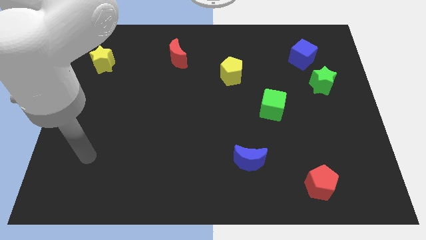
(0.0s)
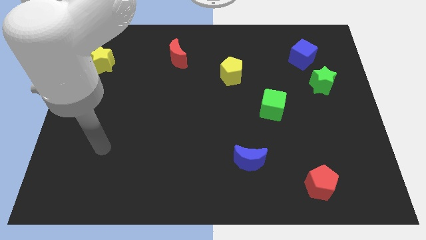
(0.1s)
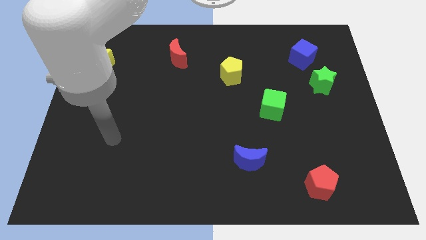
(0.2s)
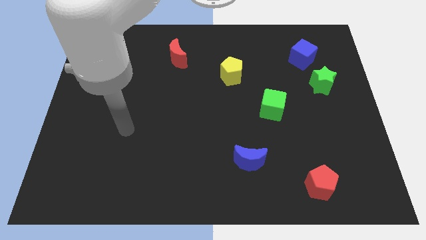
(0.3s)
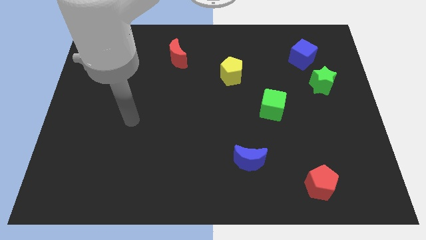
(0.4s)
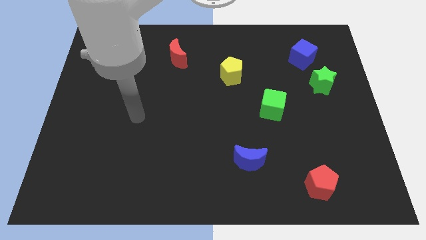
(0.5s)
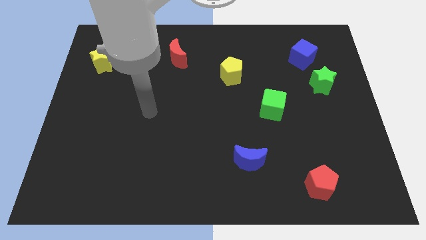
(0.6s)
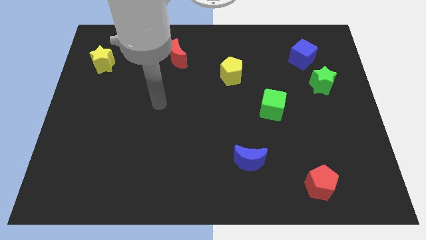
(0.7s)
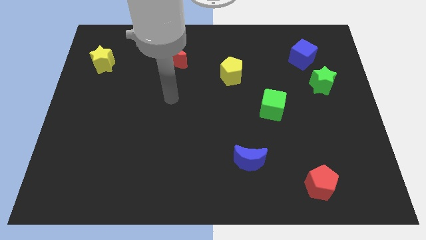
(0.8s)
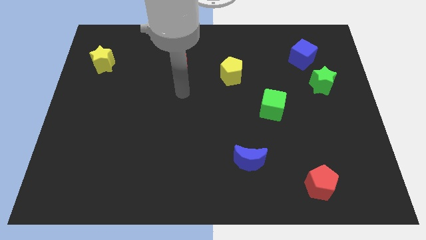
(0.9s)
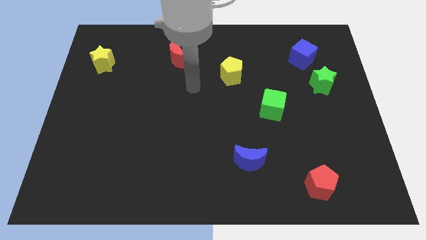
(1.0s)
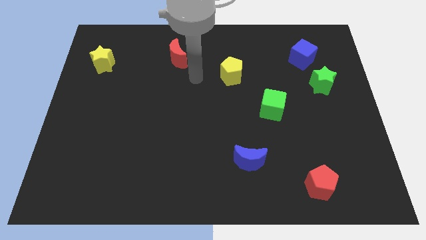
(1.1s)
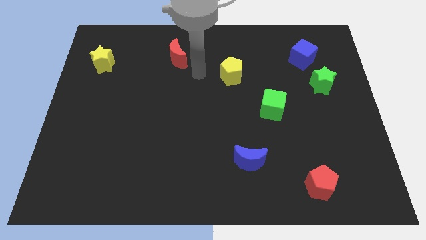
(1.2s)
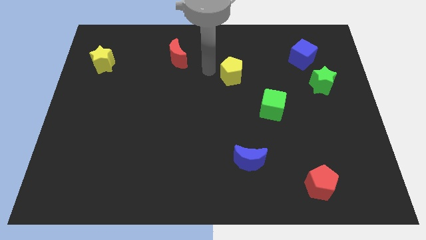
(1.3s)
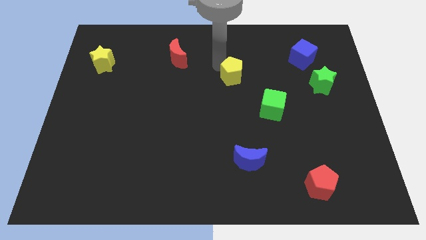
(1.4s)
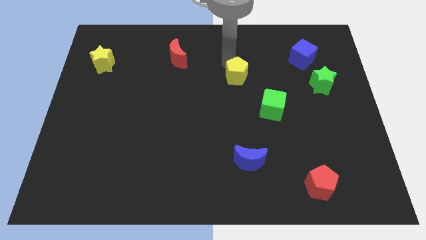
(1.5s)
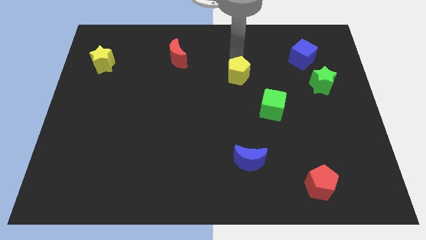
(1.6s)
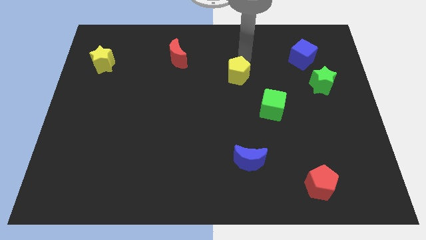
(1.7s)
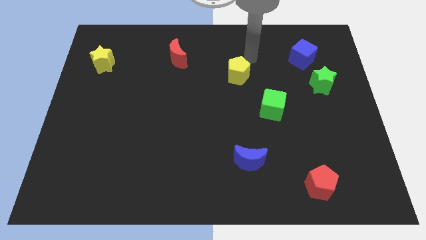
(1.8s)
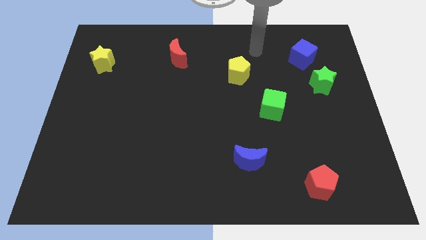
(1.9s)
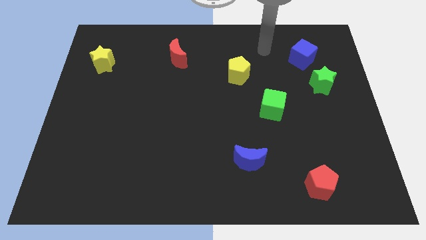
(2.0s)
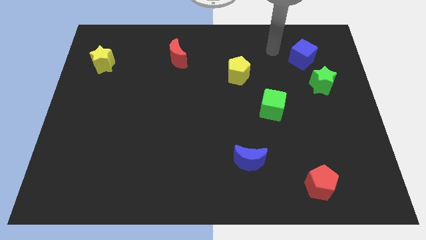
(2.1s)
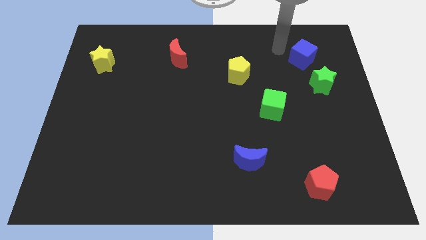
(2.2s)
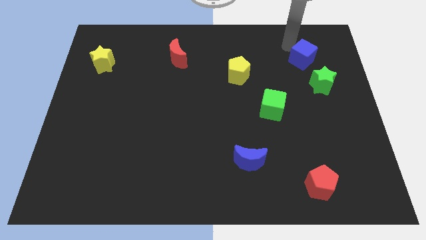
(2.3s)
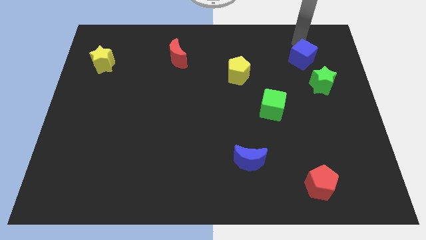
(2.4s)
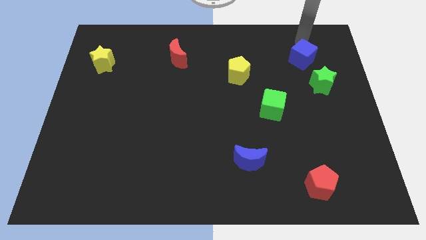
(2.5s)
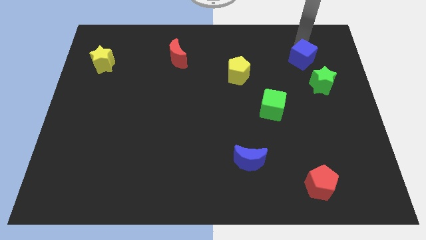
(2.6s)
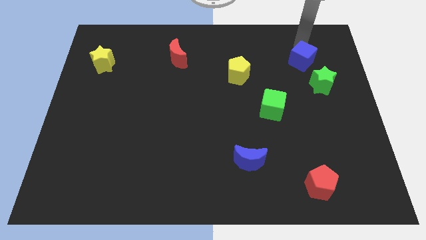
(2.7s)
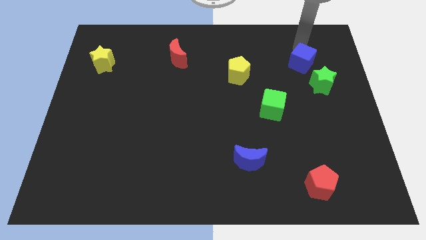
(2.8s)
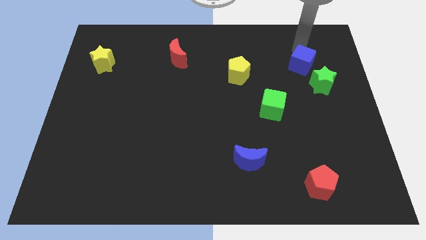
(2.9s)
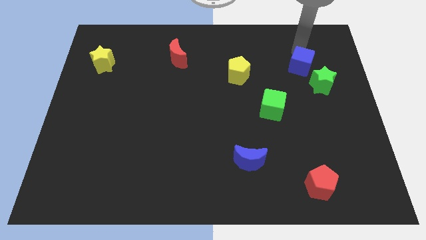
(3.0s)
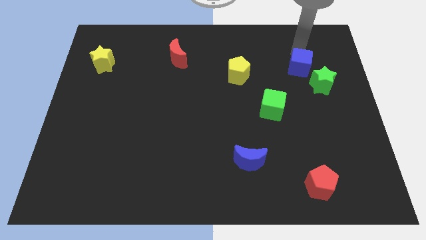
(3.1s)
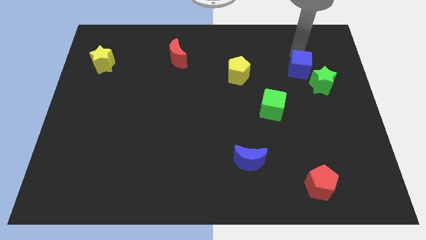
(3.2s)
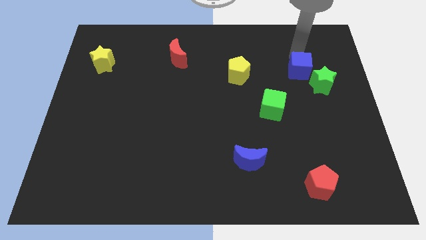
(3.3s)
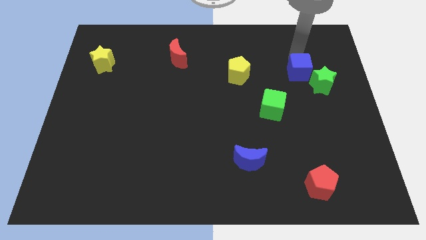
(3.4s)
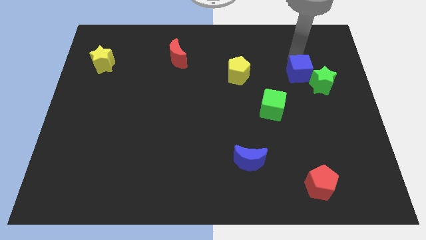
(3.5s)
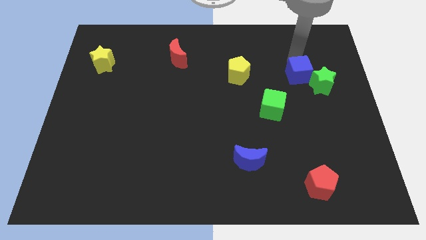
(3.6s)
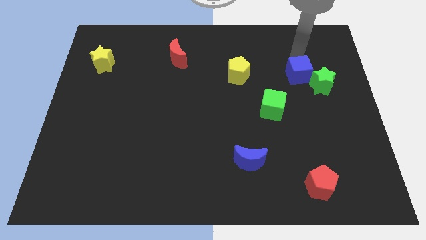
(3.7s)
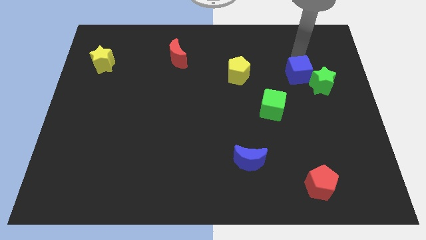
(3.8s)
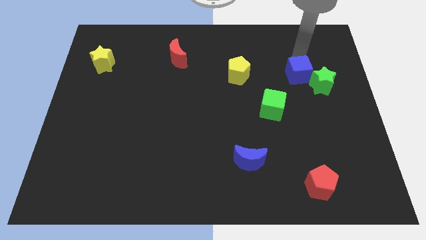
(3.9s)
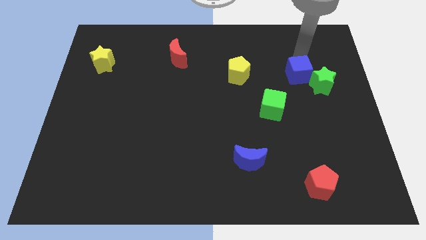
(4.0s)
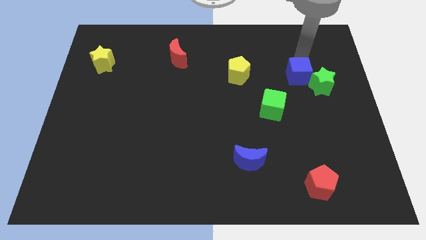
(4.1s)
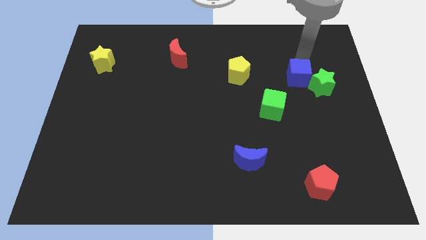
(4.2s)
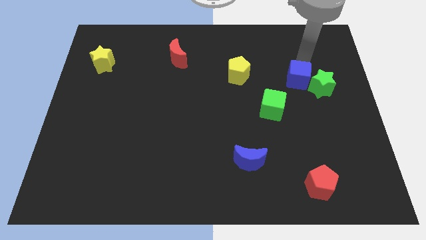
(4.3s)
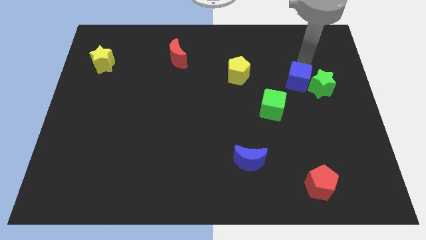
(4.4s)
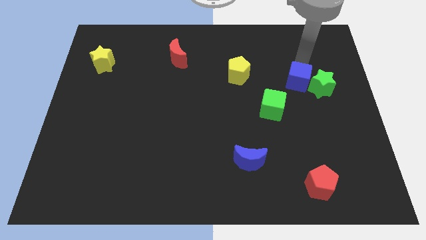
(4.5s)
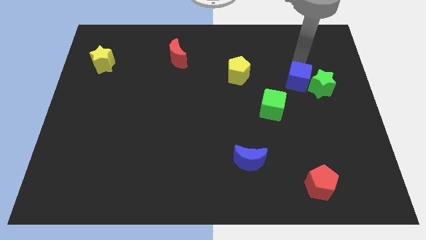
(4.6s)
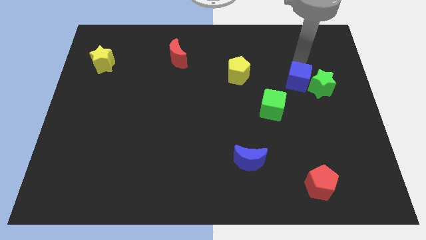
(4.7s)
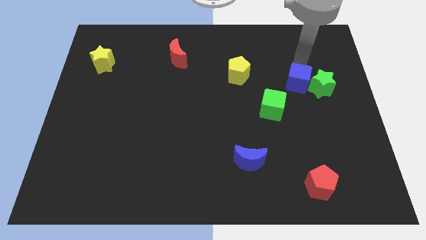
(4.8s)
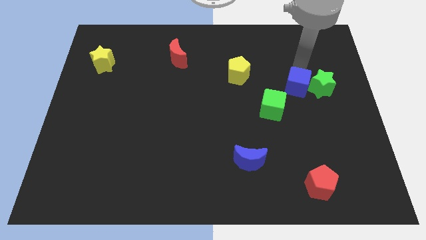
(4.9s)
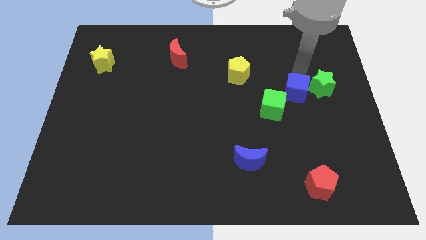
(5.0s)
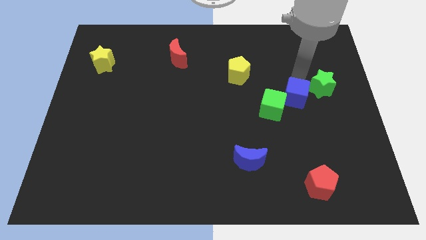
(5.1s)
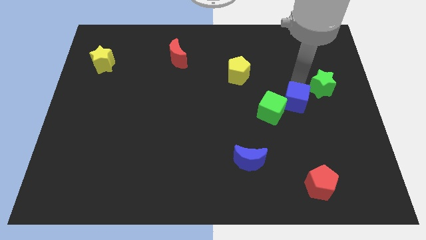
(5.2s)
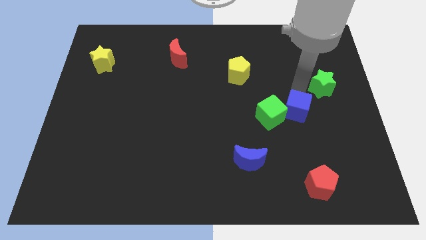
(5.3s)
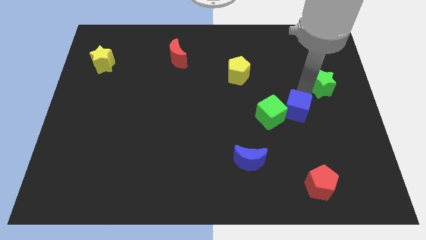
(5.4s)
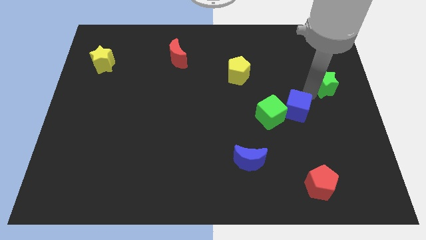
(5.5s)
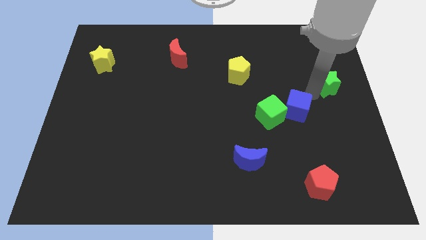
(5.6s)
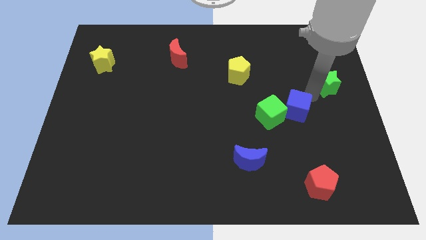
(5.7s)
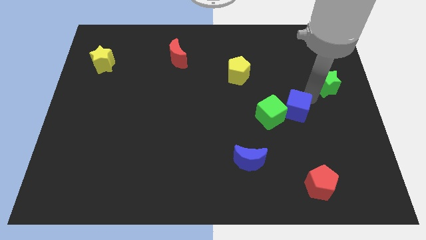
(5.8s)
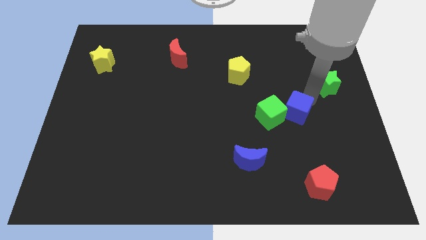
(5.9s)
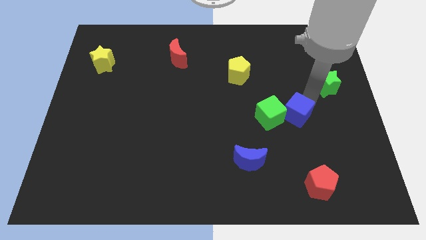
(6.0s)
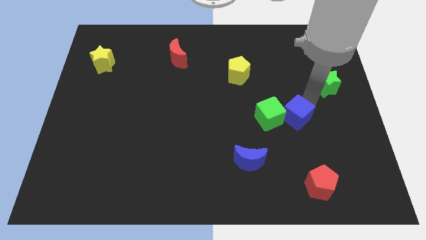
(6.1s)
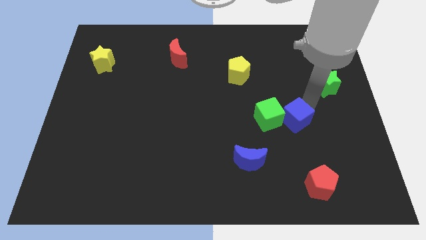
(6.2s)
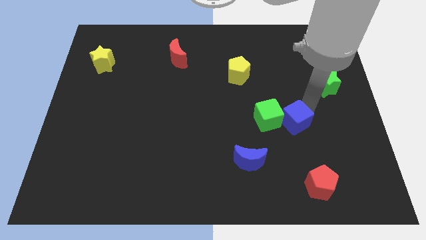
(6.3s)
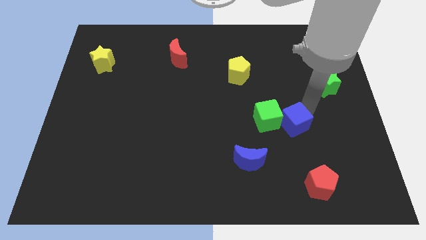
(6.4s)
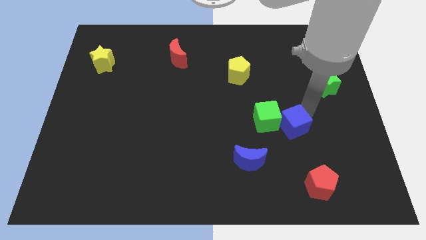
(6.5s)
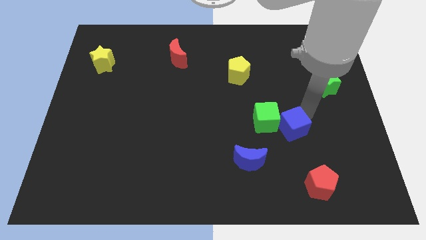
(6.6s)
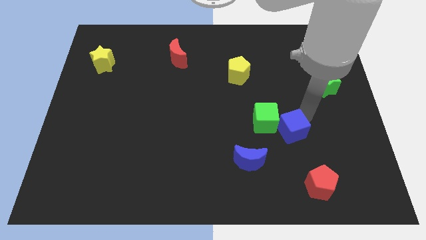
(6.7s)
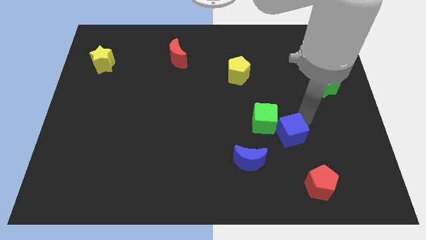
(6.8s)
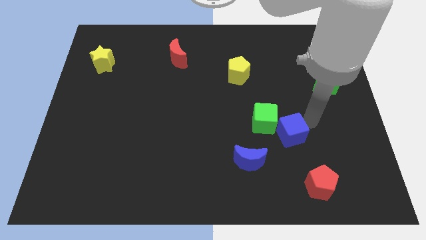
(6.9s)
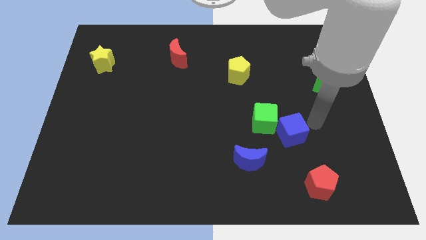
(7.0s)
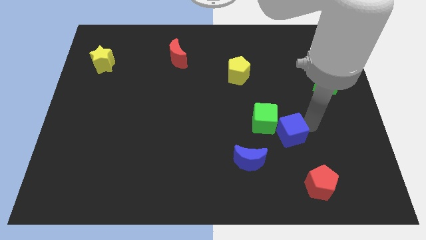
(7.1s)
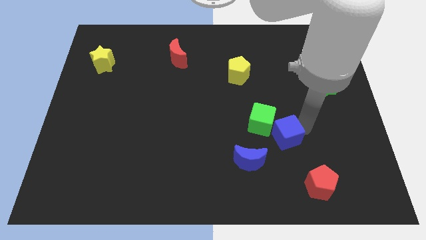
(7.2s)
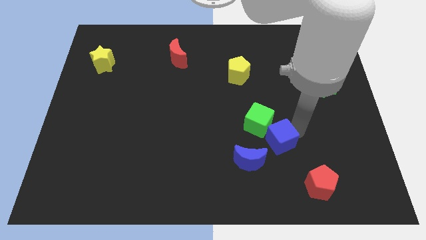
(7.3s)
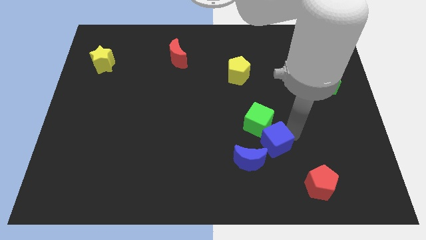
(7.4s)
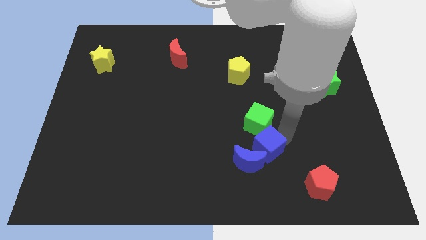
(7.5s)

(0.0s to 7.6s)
push the blue cube towards the blue moon
